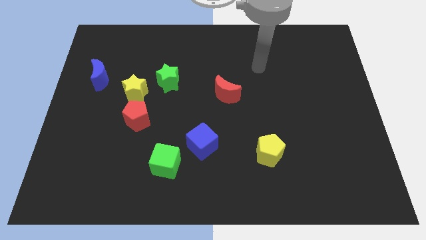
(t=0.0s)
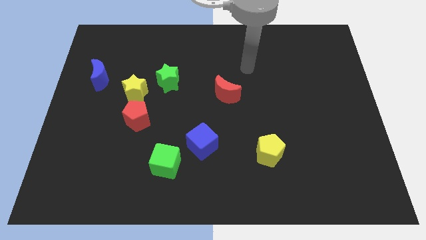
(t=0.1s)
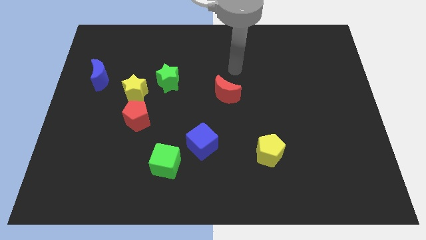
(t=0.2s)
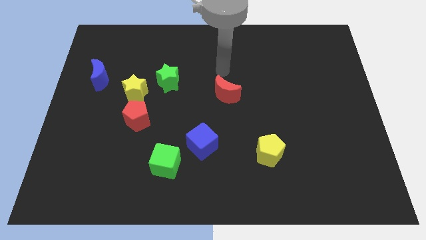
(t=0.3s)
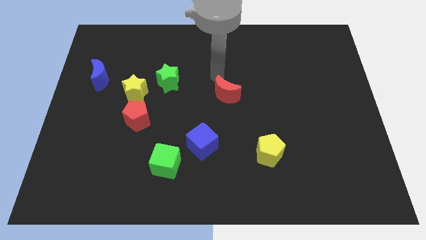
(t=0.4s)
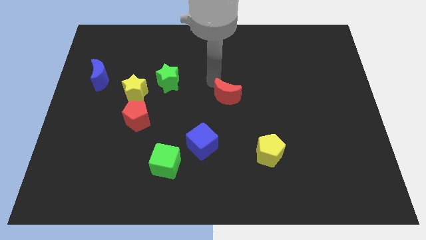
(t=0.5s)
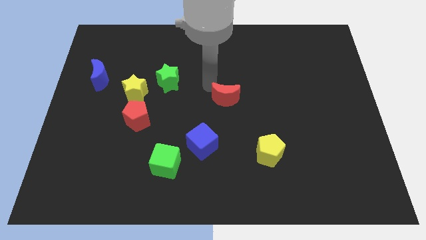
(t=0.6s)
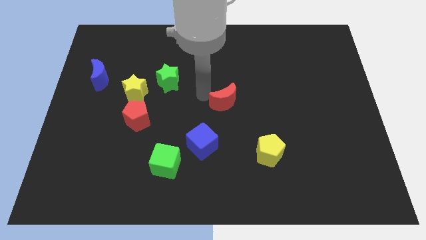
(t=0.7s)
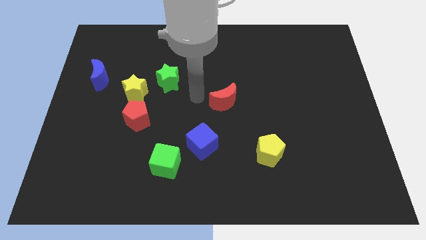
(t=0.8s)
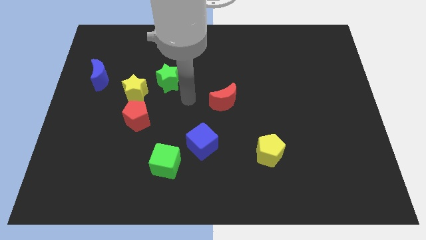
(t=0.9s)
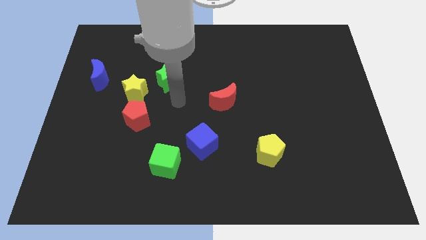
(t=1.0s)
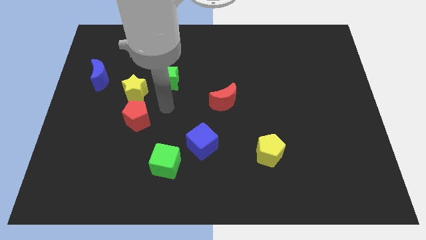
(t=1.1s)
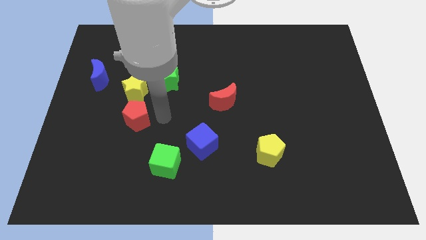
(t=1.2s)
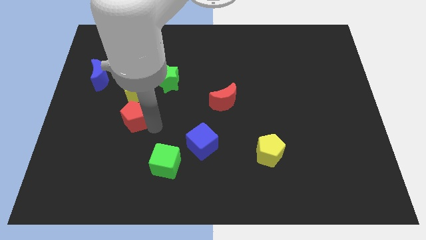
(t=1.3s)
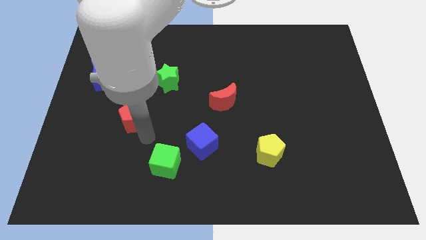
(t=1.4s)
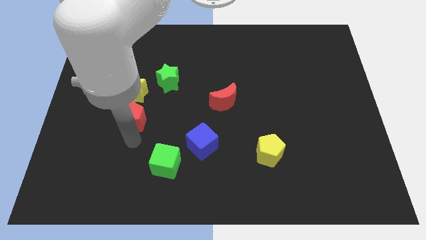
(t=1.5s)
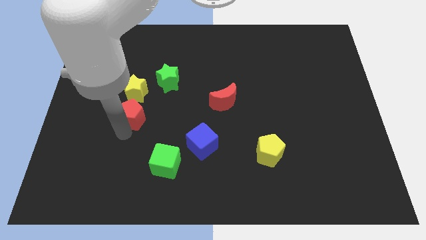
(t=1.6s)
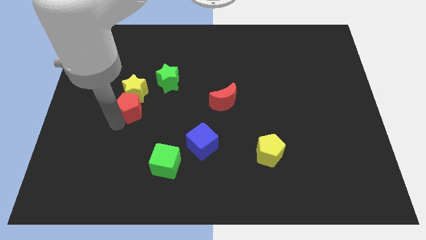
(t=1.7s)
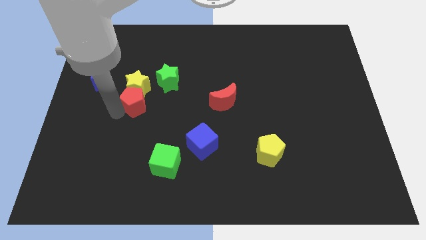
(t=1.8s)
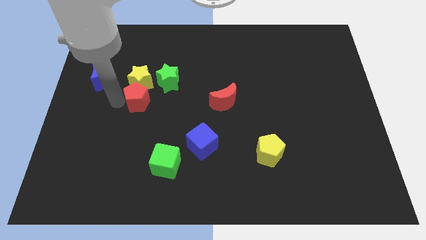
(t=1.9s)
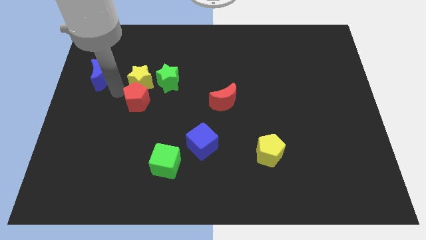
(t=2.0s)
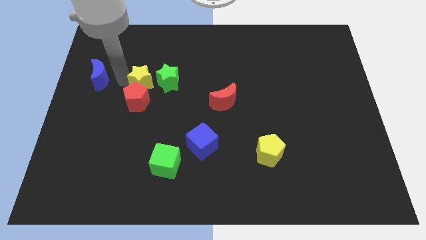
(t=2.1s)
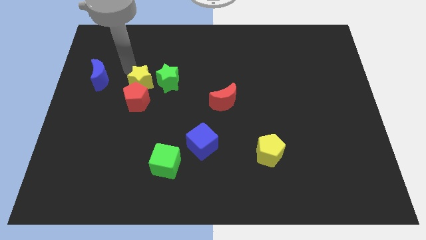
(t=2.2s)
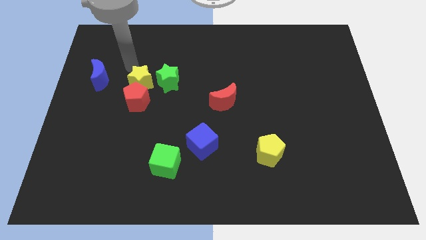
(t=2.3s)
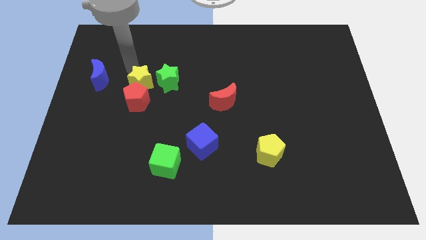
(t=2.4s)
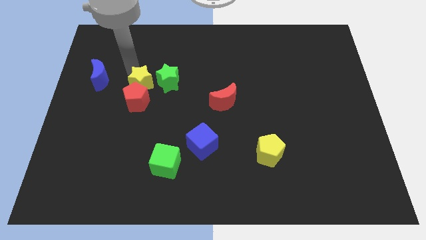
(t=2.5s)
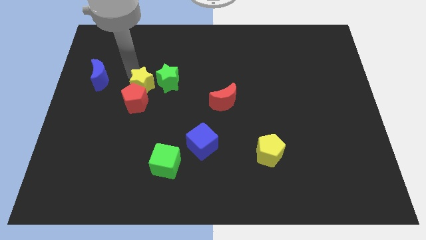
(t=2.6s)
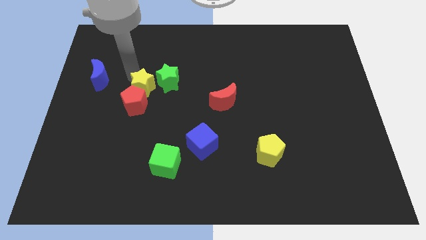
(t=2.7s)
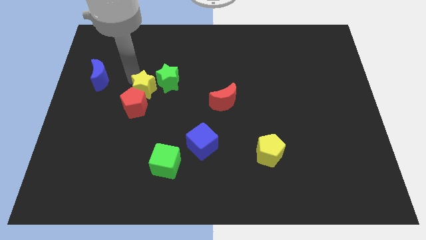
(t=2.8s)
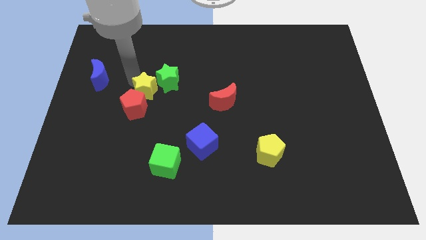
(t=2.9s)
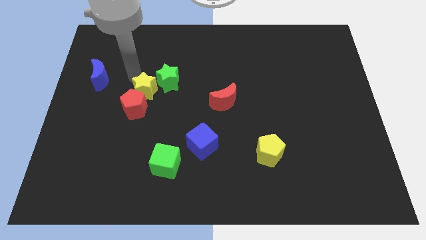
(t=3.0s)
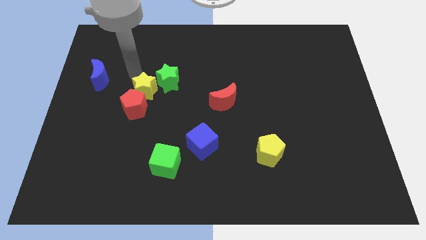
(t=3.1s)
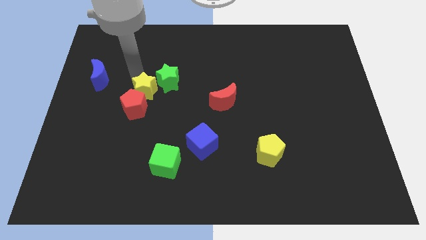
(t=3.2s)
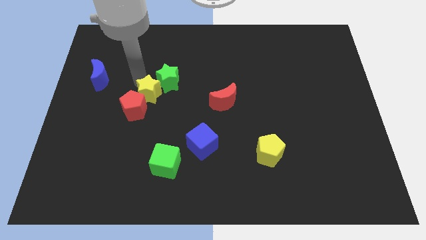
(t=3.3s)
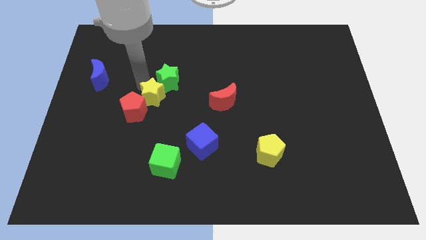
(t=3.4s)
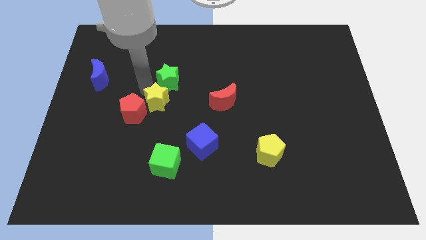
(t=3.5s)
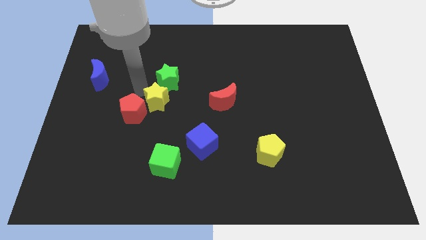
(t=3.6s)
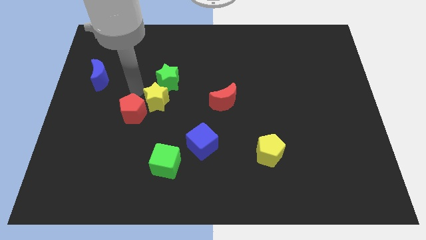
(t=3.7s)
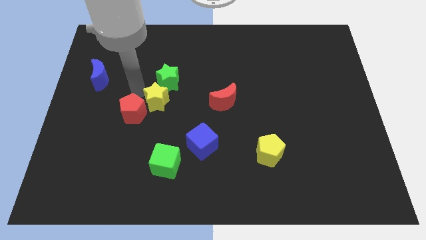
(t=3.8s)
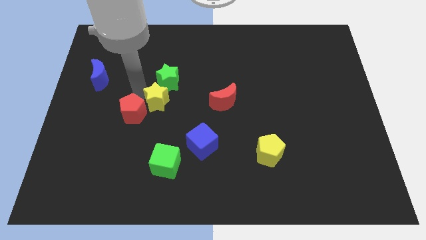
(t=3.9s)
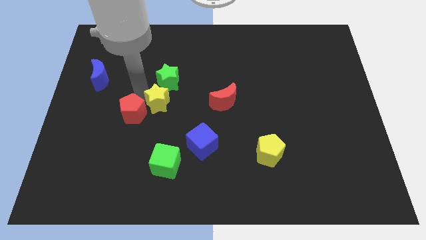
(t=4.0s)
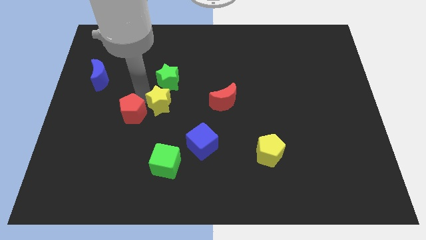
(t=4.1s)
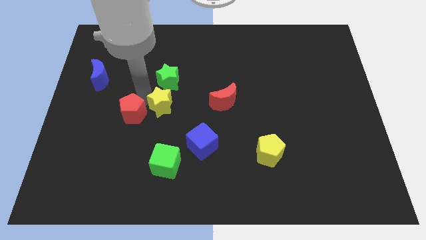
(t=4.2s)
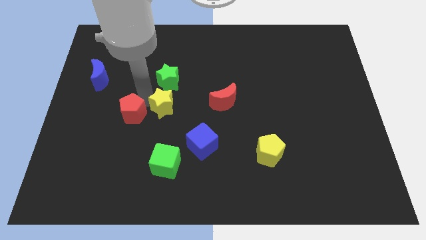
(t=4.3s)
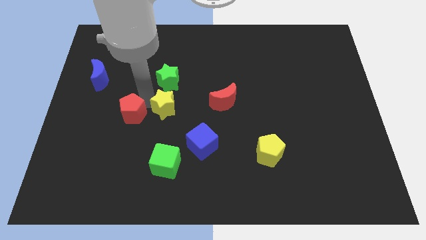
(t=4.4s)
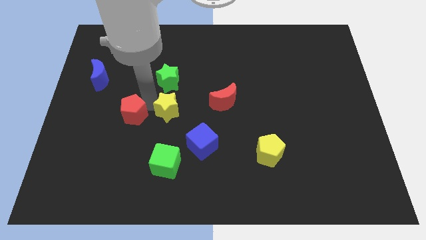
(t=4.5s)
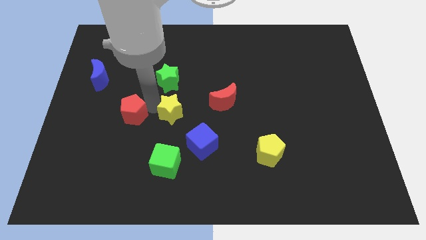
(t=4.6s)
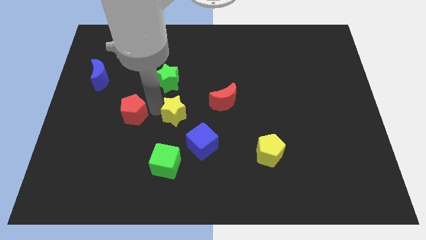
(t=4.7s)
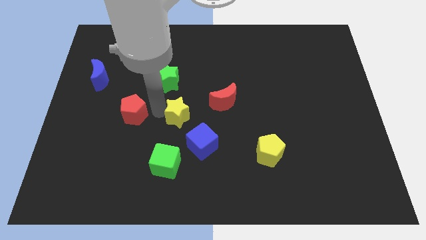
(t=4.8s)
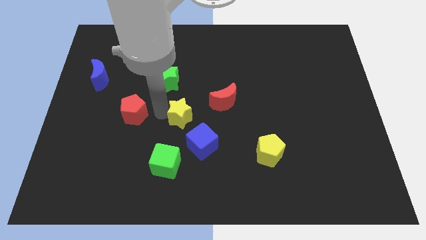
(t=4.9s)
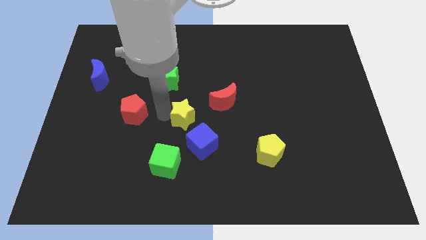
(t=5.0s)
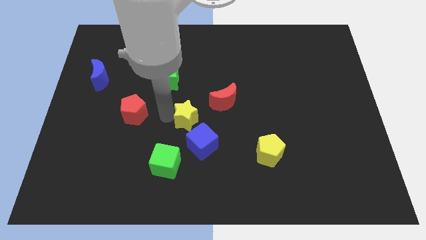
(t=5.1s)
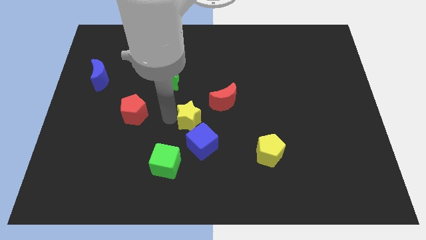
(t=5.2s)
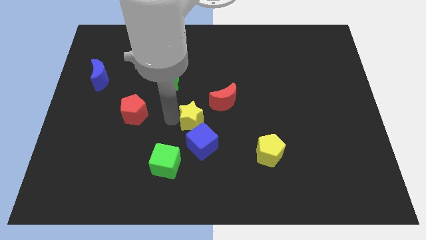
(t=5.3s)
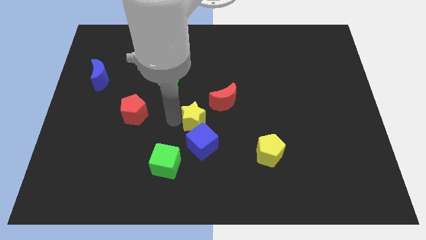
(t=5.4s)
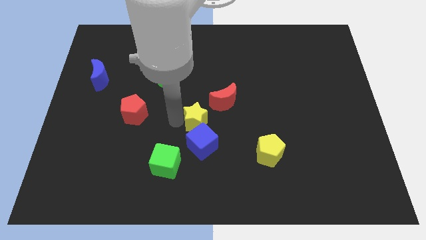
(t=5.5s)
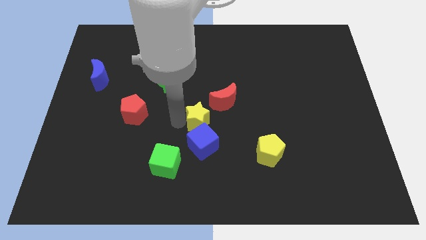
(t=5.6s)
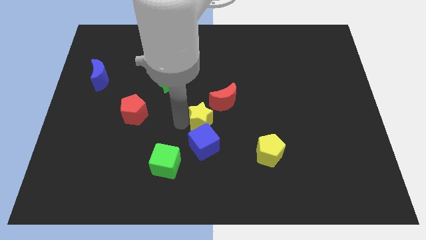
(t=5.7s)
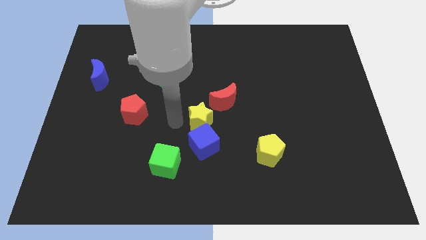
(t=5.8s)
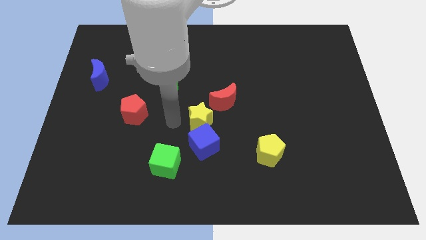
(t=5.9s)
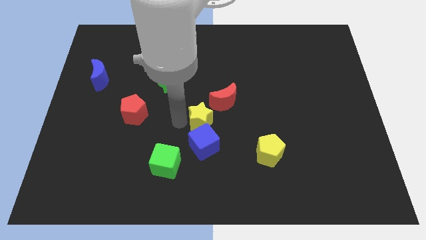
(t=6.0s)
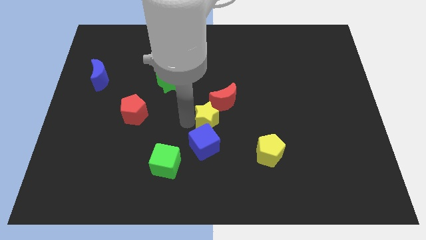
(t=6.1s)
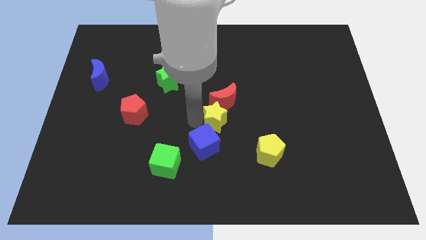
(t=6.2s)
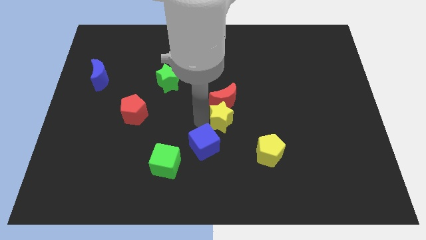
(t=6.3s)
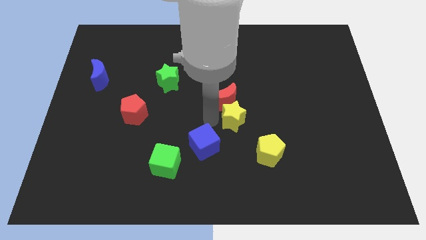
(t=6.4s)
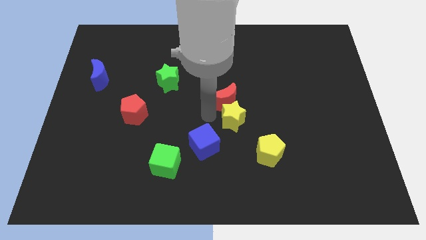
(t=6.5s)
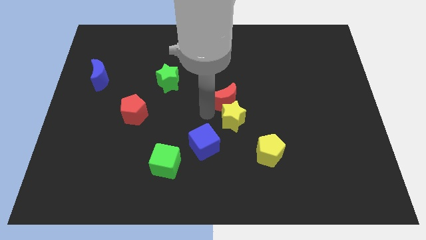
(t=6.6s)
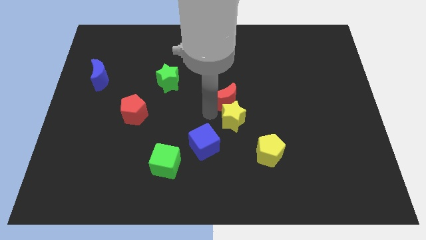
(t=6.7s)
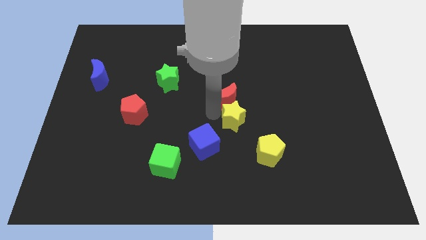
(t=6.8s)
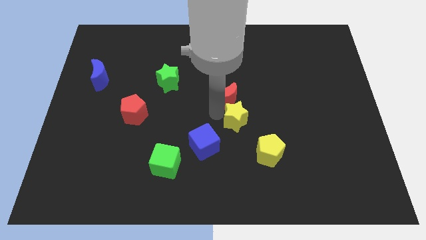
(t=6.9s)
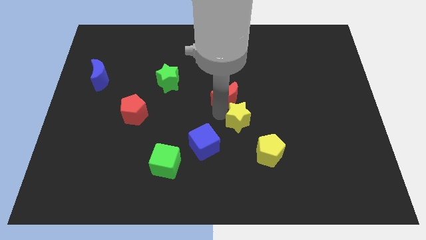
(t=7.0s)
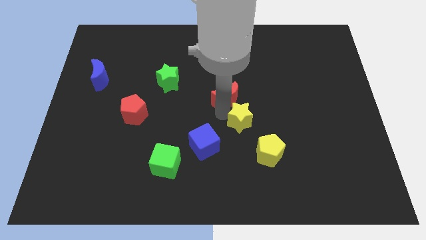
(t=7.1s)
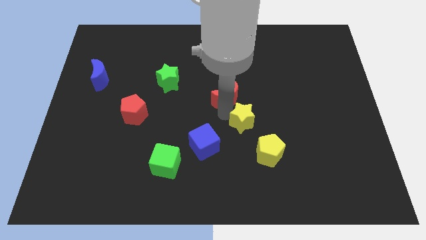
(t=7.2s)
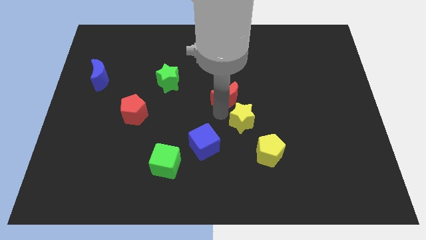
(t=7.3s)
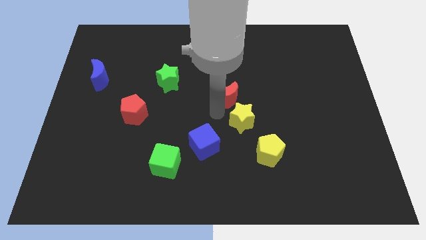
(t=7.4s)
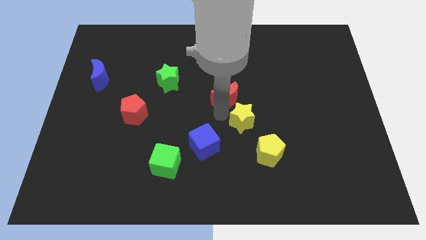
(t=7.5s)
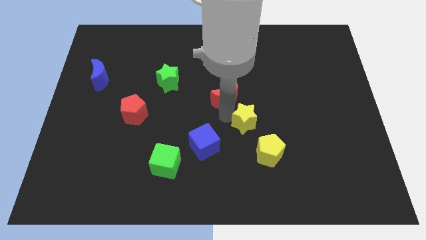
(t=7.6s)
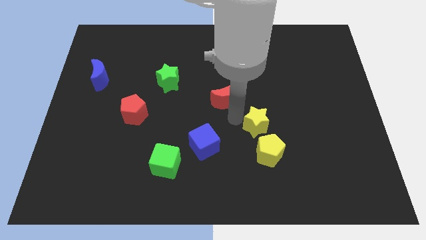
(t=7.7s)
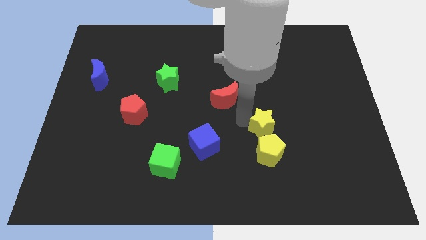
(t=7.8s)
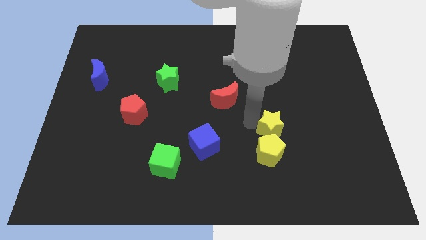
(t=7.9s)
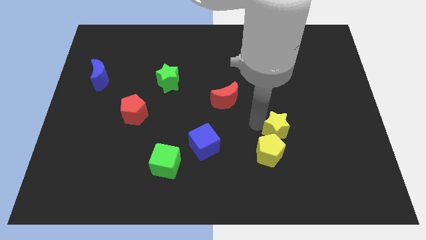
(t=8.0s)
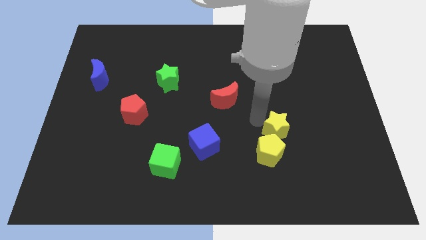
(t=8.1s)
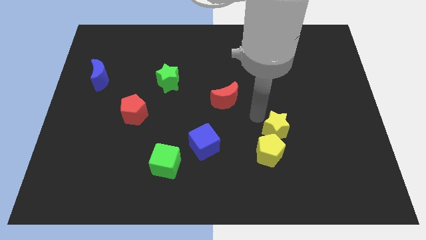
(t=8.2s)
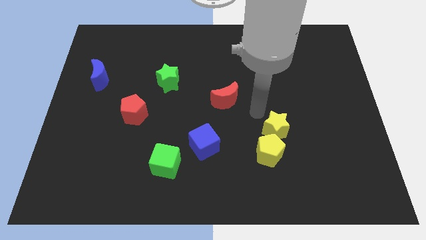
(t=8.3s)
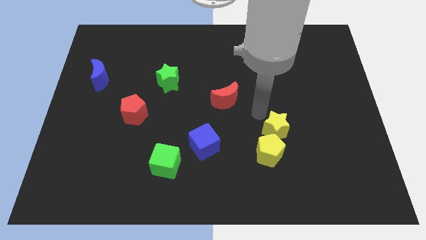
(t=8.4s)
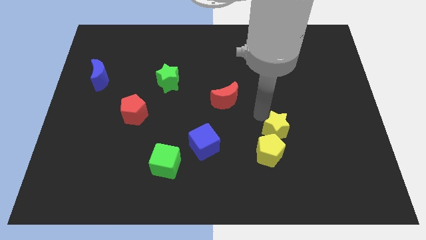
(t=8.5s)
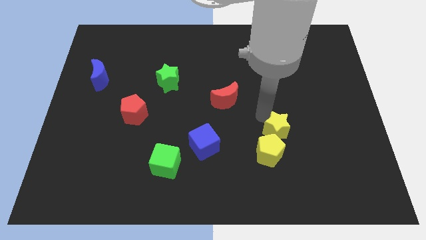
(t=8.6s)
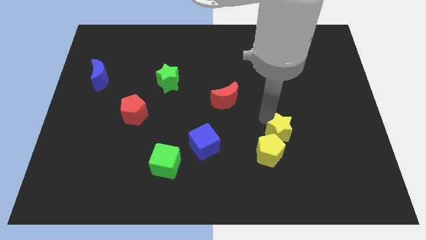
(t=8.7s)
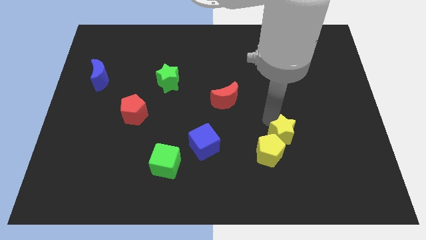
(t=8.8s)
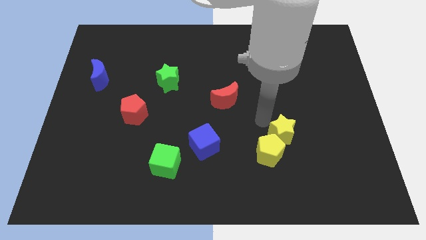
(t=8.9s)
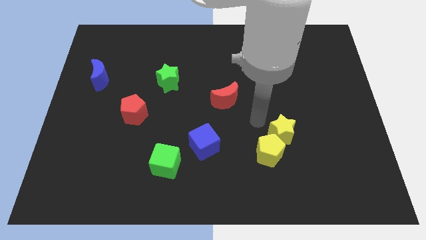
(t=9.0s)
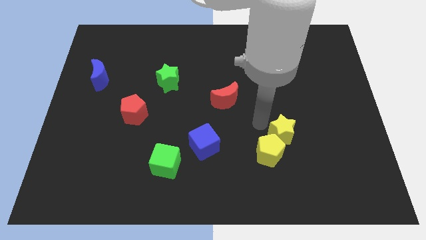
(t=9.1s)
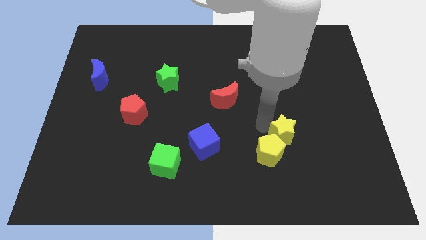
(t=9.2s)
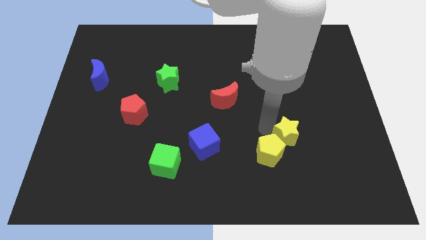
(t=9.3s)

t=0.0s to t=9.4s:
put the yellow star to the right side of the yellow pentagon
